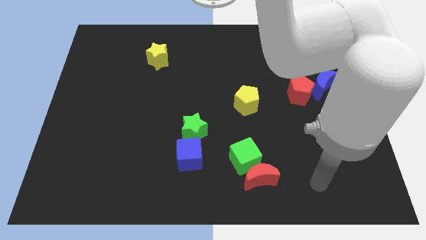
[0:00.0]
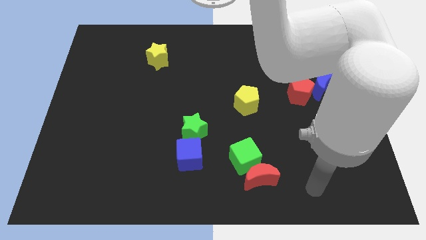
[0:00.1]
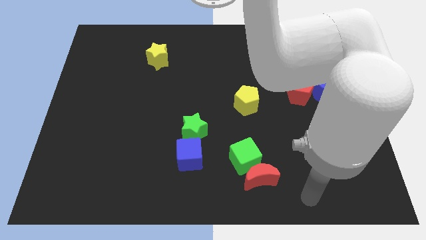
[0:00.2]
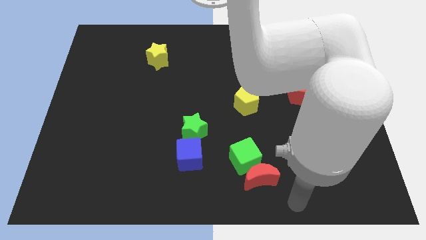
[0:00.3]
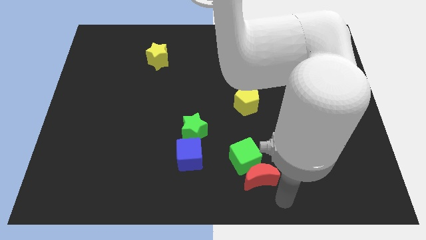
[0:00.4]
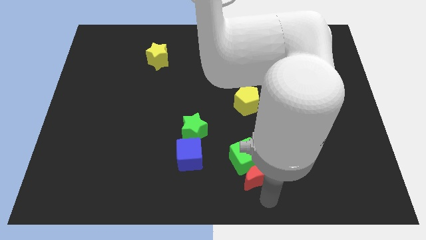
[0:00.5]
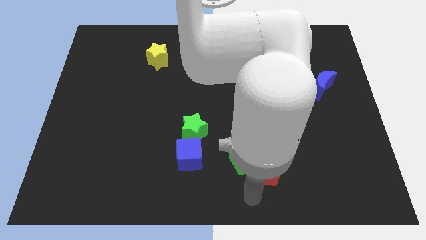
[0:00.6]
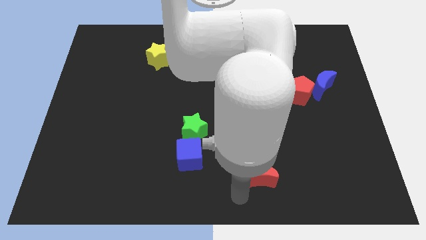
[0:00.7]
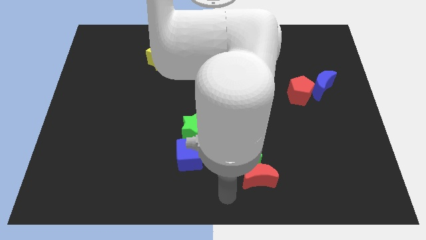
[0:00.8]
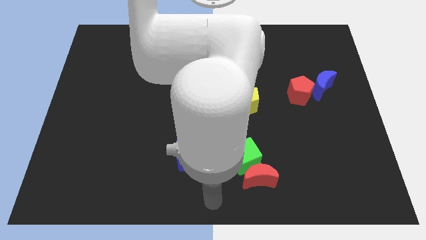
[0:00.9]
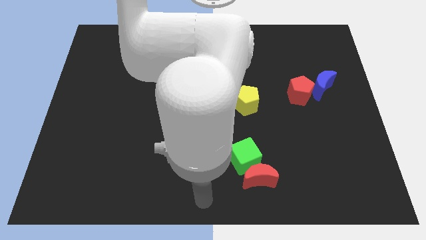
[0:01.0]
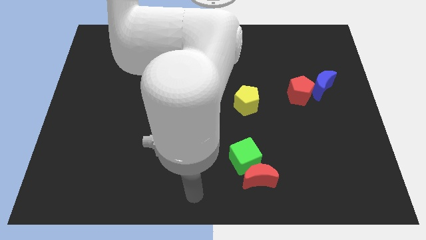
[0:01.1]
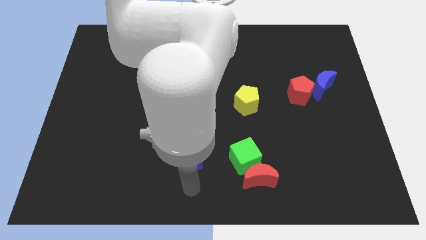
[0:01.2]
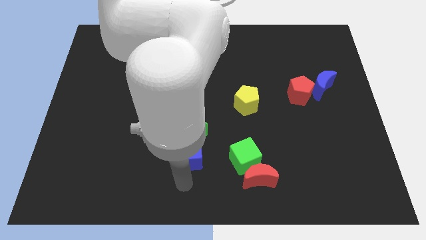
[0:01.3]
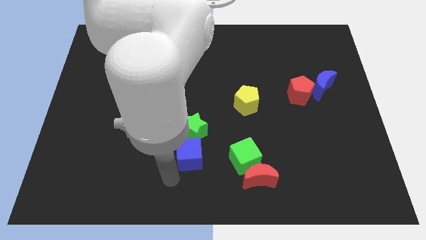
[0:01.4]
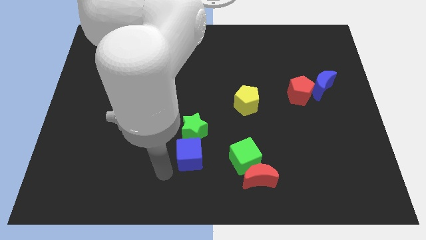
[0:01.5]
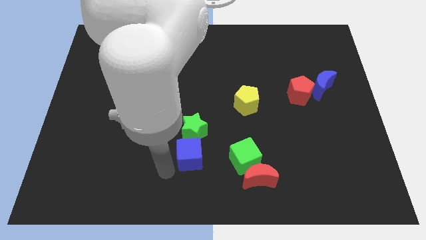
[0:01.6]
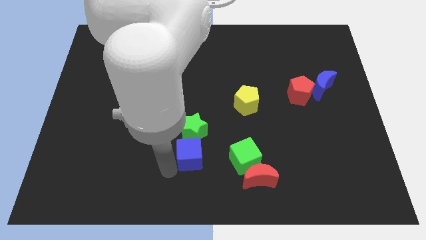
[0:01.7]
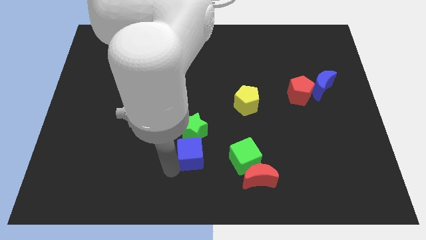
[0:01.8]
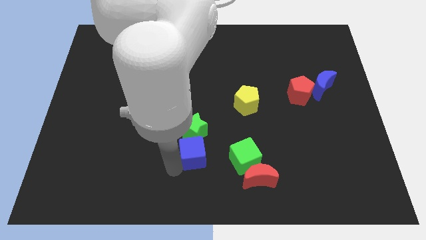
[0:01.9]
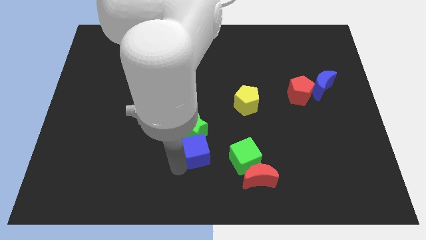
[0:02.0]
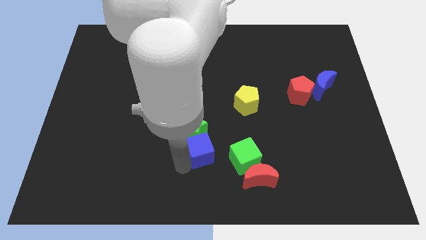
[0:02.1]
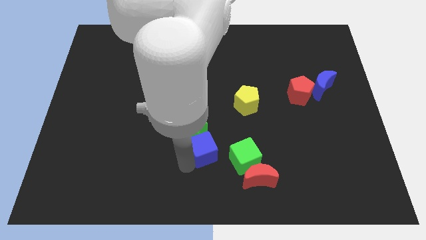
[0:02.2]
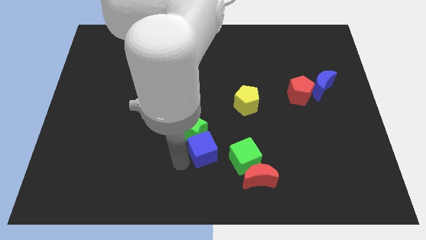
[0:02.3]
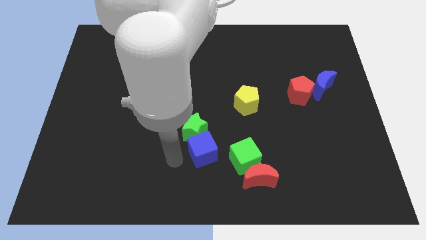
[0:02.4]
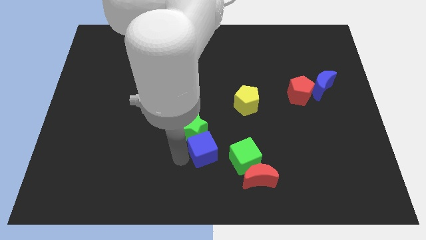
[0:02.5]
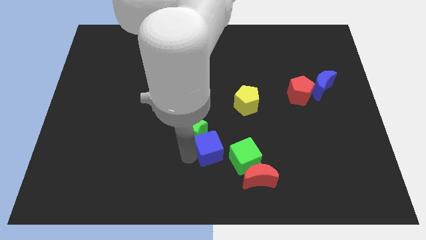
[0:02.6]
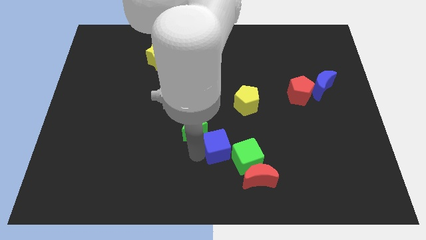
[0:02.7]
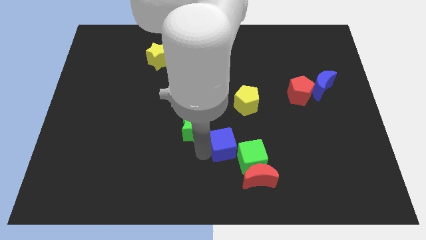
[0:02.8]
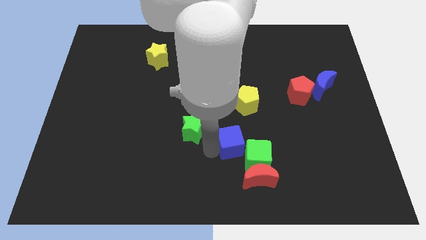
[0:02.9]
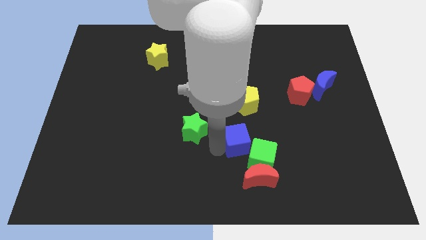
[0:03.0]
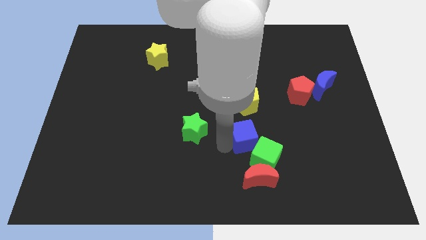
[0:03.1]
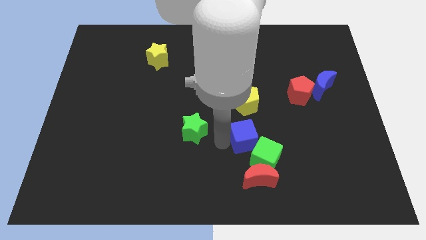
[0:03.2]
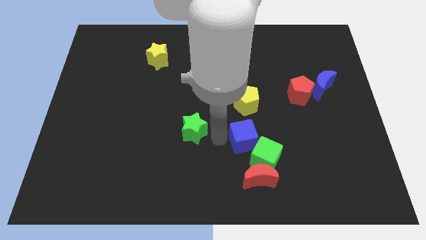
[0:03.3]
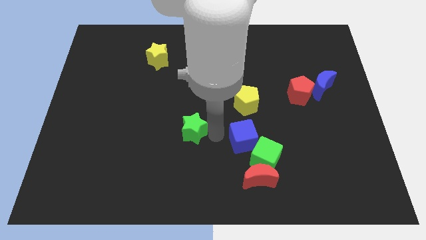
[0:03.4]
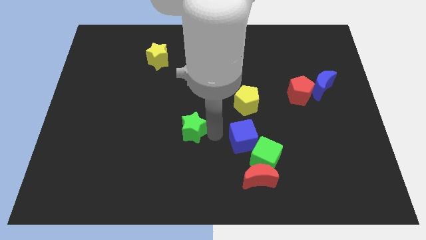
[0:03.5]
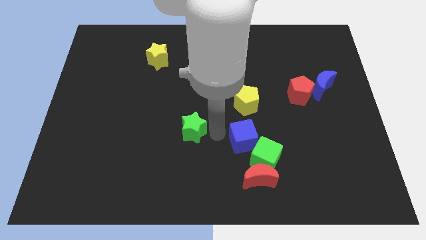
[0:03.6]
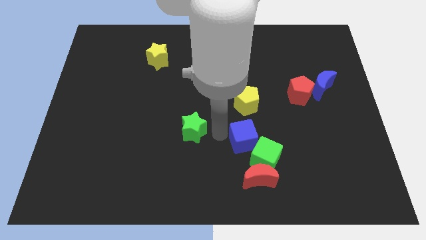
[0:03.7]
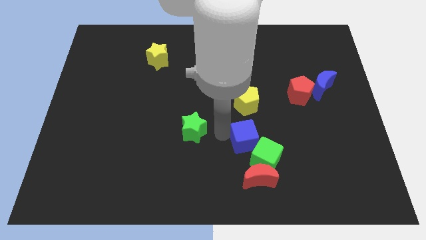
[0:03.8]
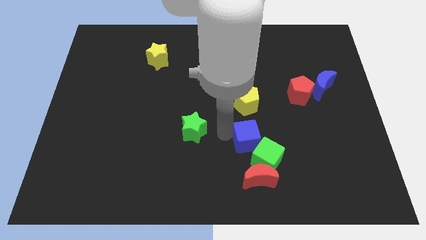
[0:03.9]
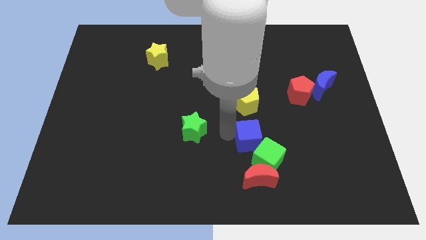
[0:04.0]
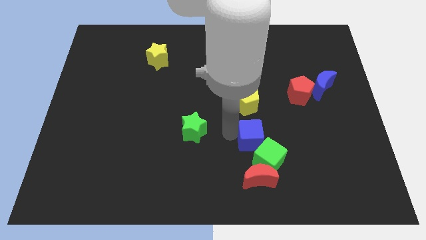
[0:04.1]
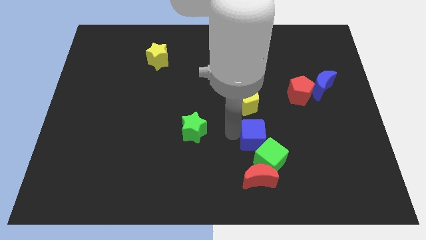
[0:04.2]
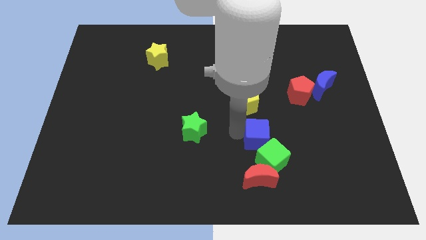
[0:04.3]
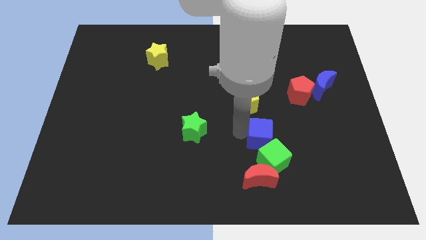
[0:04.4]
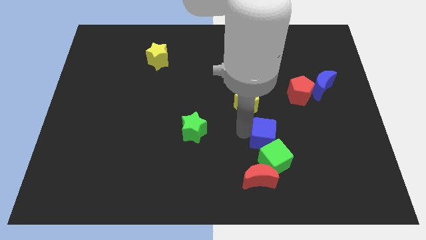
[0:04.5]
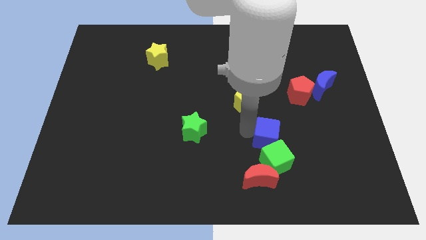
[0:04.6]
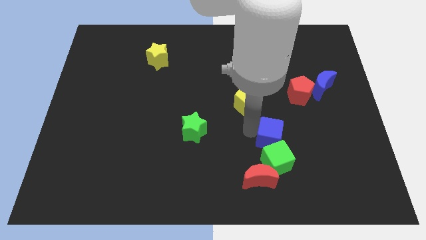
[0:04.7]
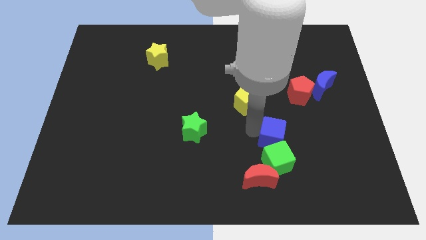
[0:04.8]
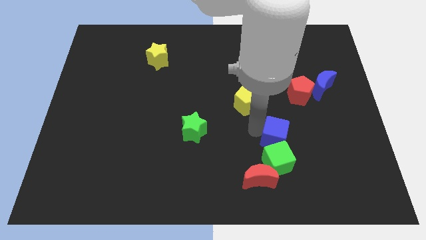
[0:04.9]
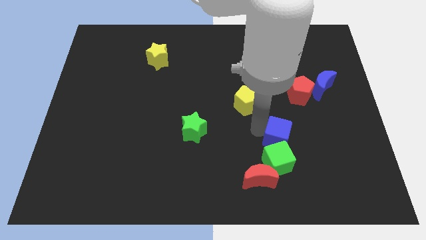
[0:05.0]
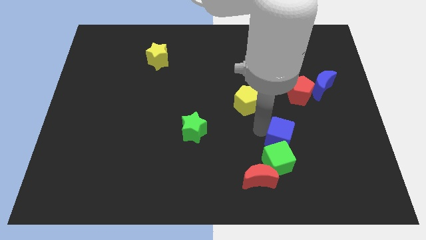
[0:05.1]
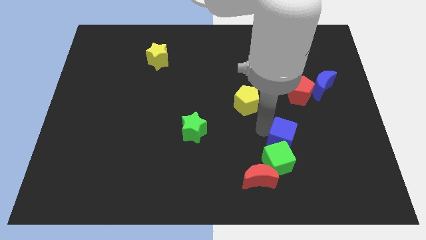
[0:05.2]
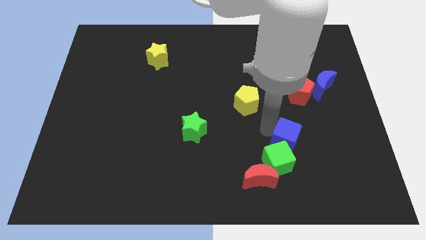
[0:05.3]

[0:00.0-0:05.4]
slide the blue cube to the right

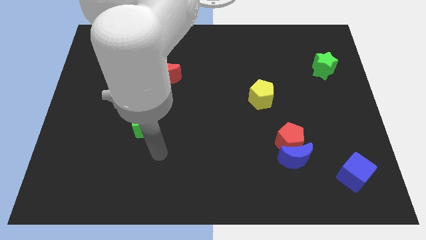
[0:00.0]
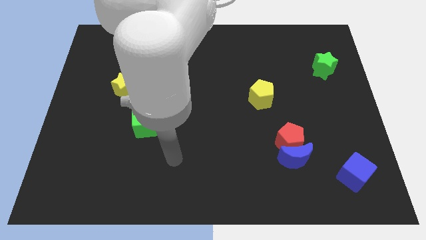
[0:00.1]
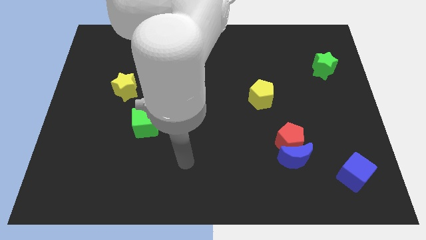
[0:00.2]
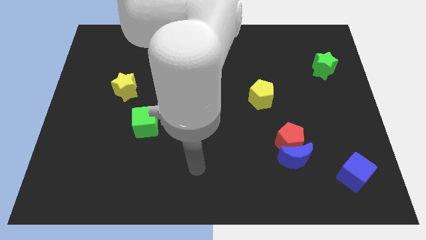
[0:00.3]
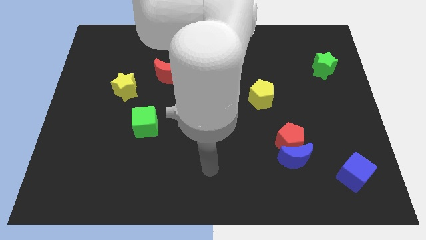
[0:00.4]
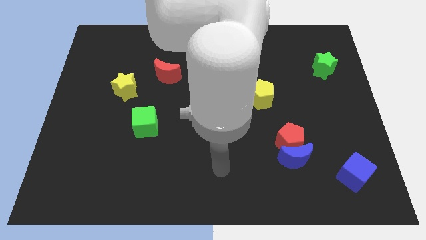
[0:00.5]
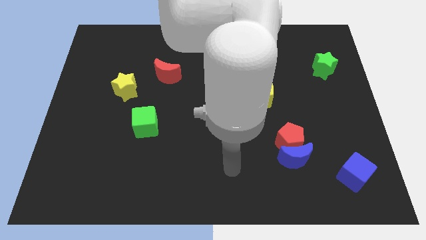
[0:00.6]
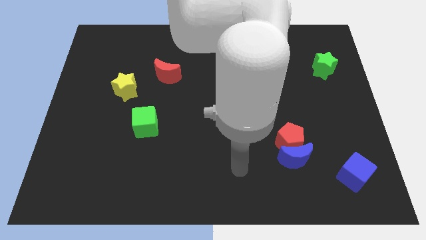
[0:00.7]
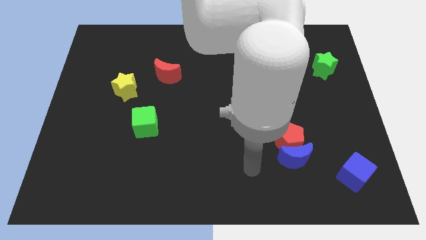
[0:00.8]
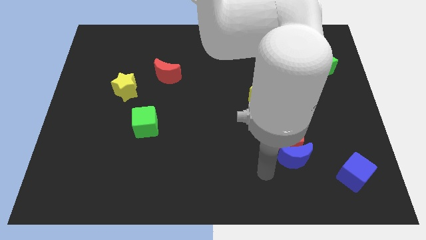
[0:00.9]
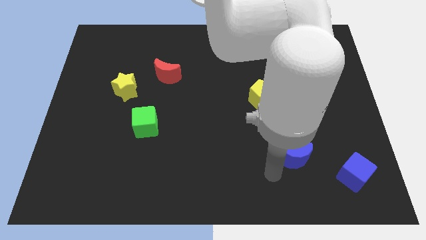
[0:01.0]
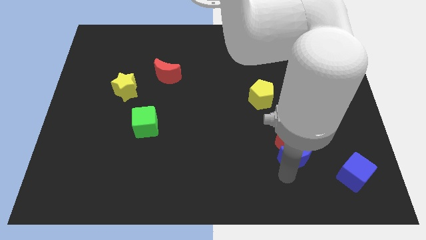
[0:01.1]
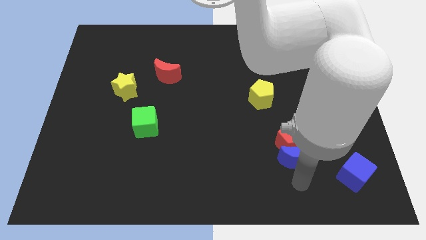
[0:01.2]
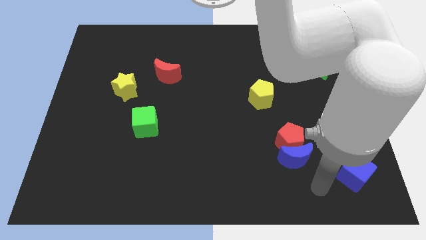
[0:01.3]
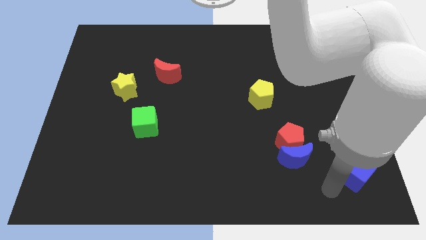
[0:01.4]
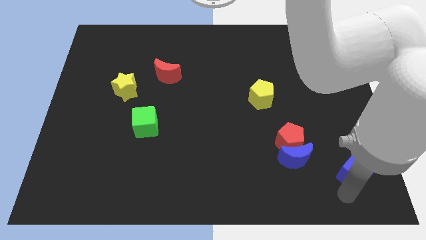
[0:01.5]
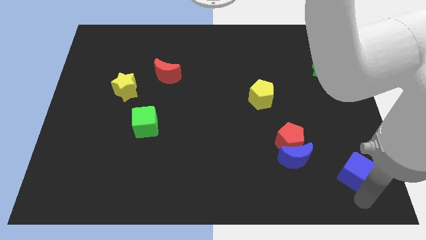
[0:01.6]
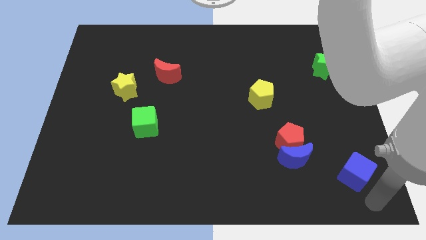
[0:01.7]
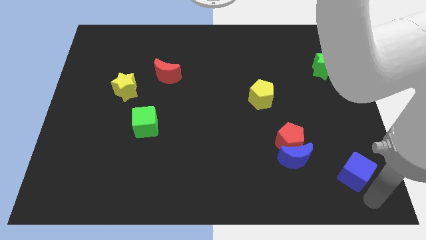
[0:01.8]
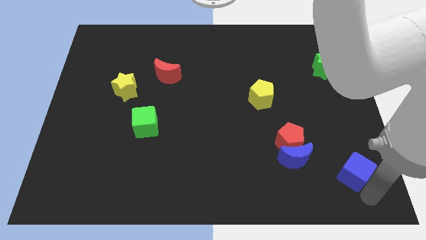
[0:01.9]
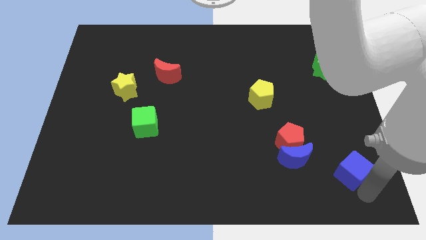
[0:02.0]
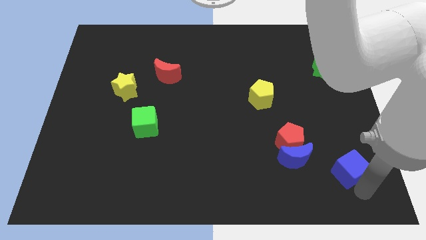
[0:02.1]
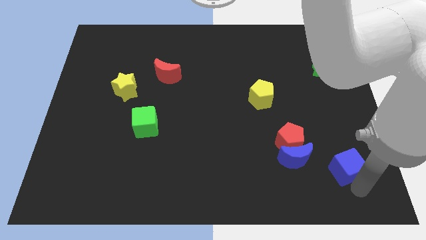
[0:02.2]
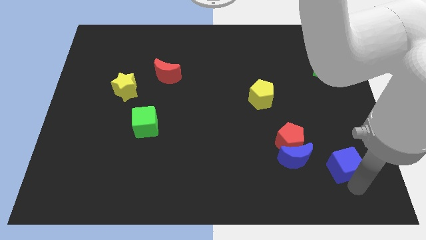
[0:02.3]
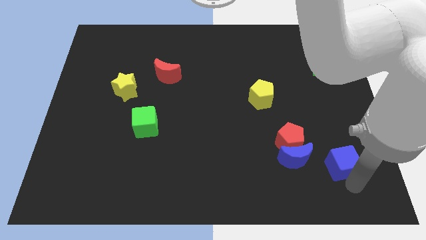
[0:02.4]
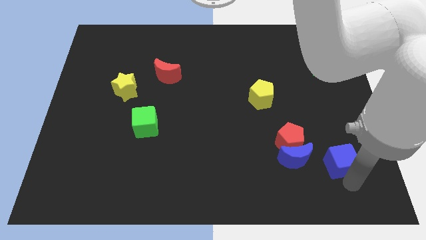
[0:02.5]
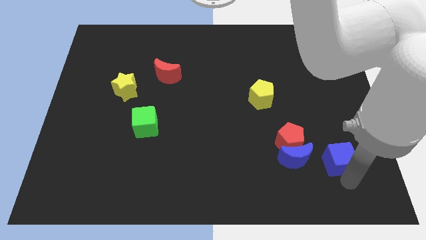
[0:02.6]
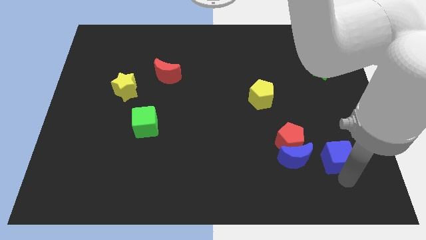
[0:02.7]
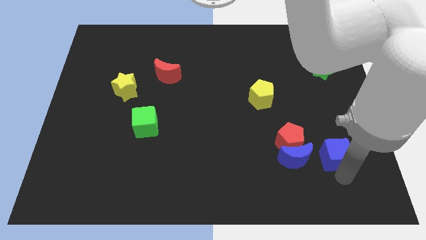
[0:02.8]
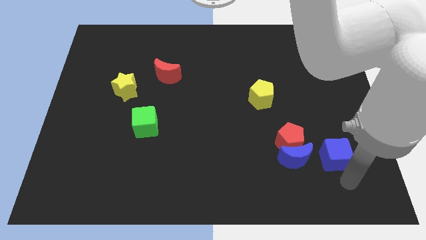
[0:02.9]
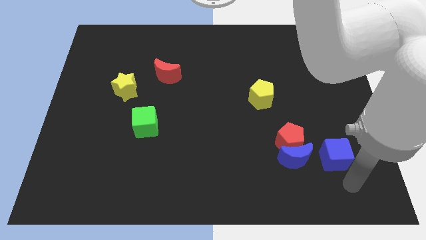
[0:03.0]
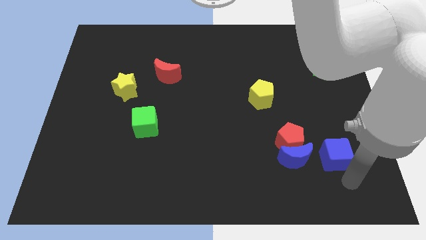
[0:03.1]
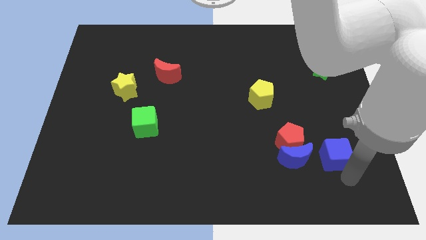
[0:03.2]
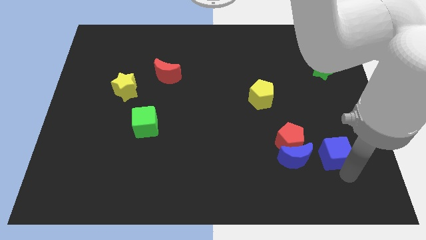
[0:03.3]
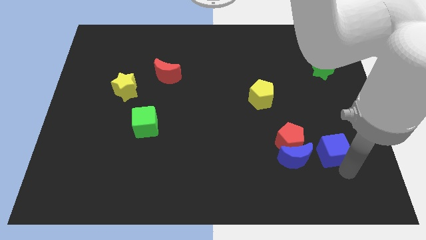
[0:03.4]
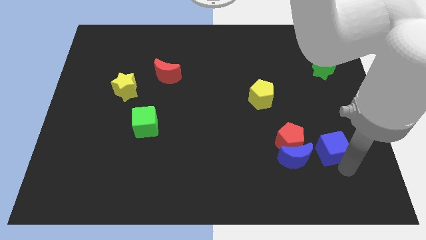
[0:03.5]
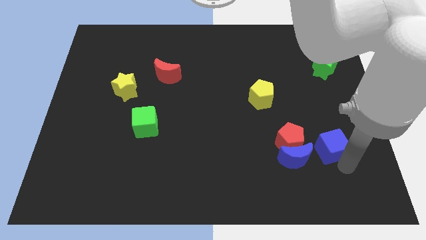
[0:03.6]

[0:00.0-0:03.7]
slightly push the blue cube up and left

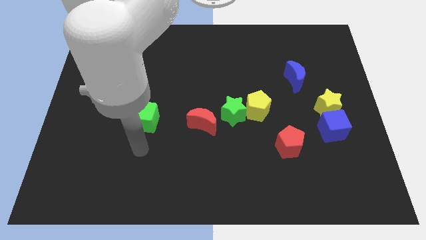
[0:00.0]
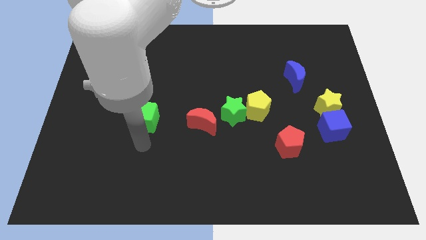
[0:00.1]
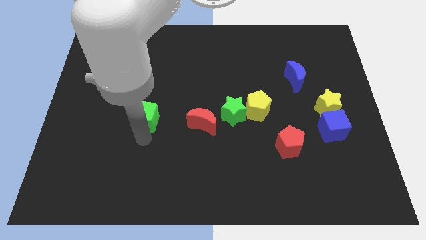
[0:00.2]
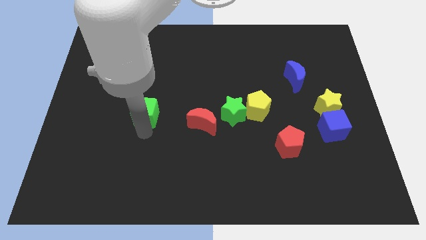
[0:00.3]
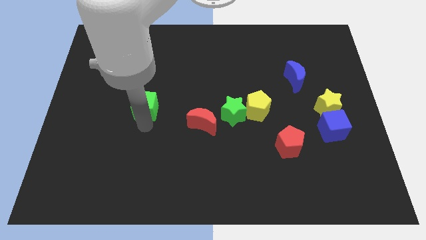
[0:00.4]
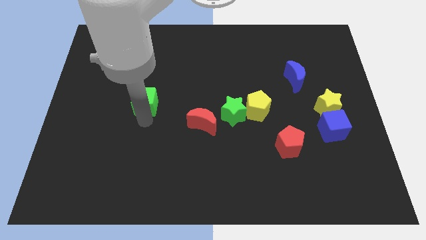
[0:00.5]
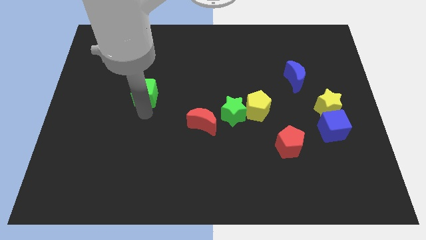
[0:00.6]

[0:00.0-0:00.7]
move the green cube up somewhat
